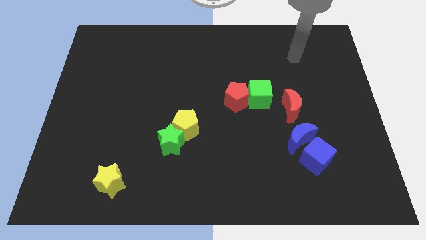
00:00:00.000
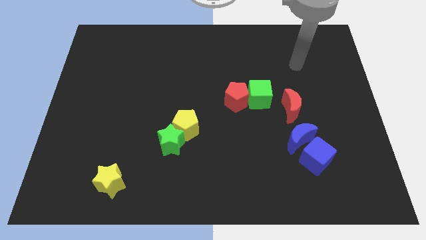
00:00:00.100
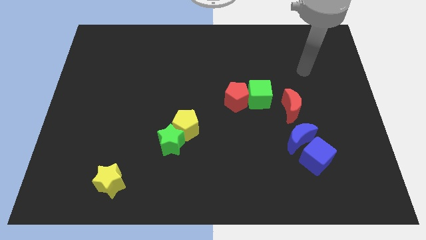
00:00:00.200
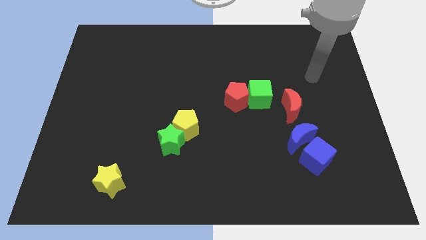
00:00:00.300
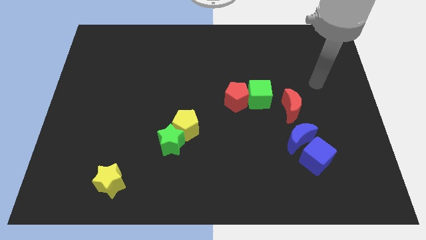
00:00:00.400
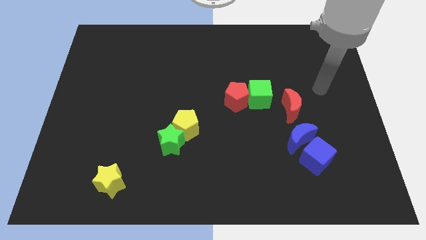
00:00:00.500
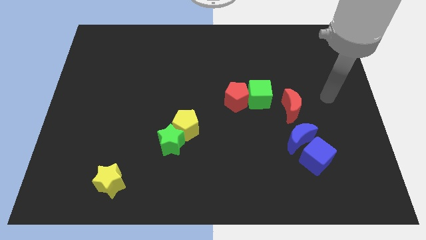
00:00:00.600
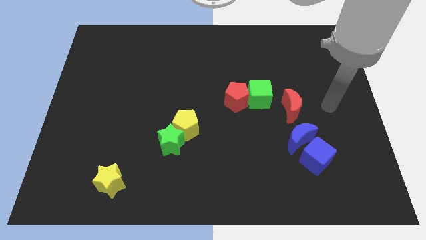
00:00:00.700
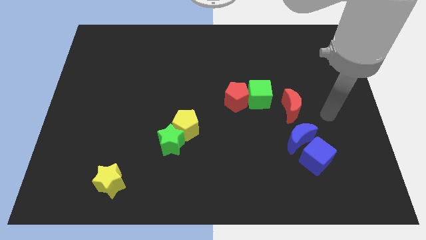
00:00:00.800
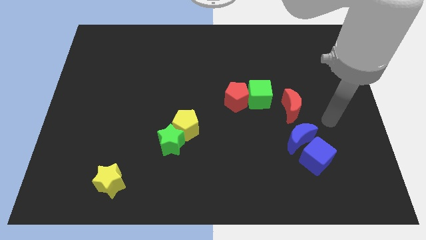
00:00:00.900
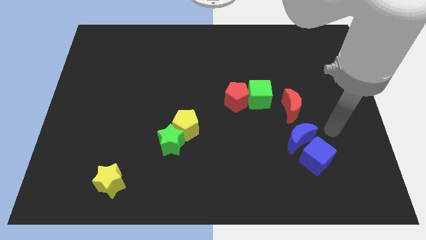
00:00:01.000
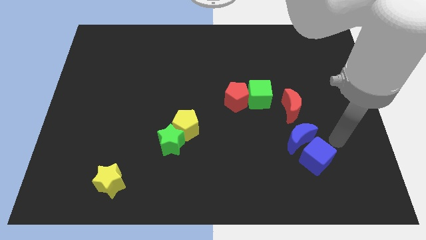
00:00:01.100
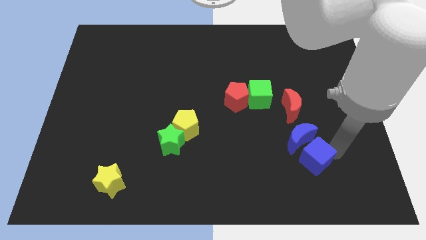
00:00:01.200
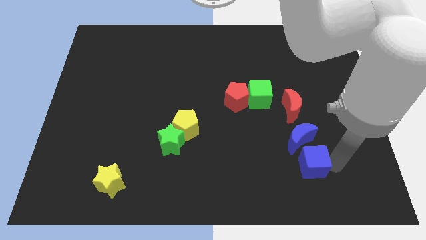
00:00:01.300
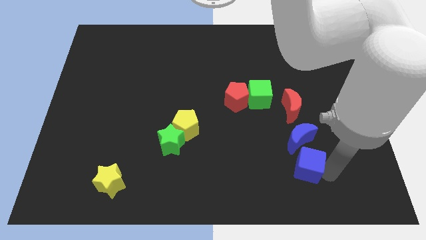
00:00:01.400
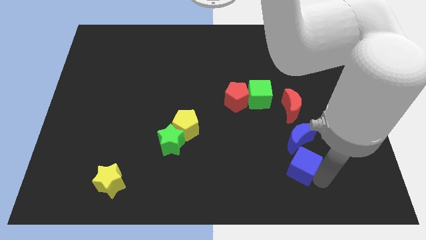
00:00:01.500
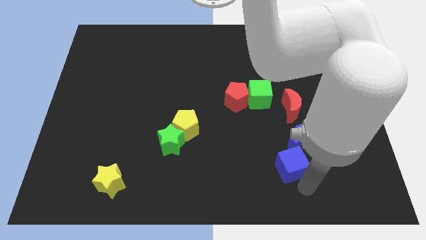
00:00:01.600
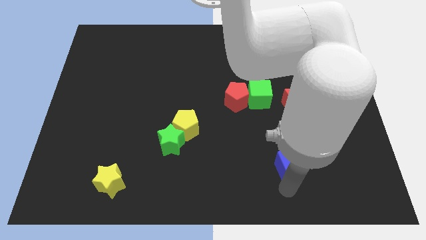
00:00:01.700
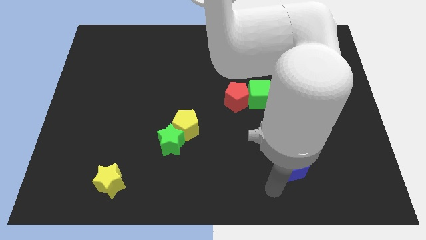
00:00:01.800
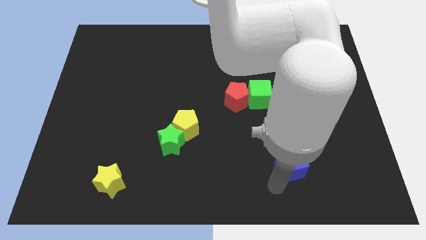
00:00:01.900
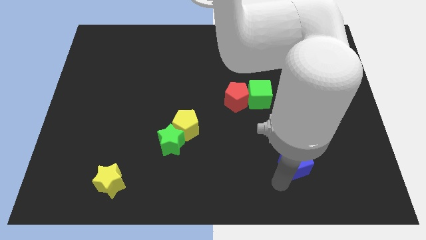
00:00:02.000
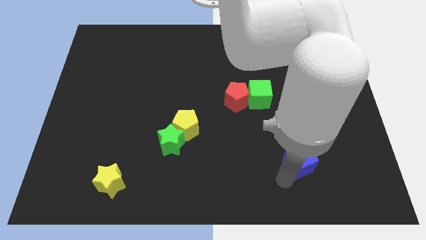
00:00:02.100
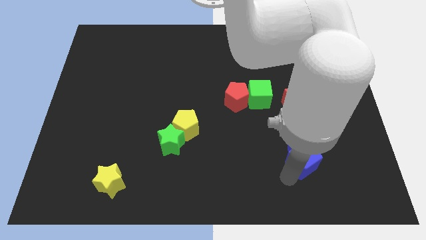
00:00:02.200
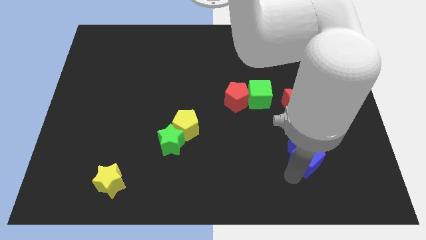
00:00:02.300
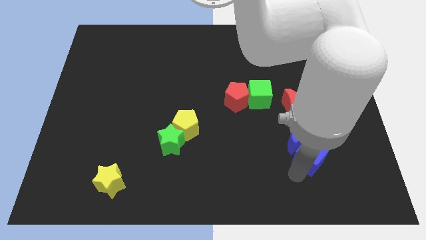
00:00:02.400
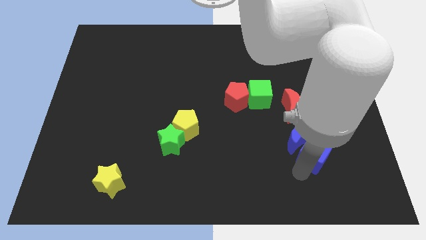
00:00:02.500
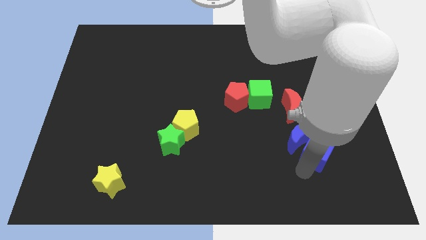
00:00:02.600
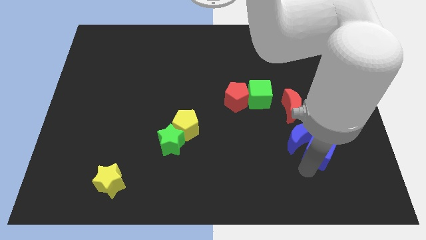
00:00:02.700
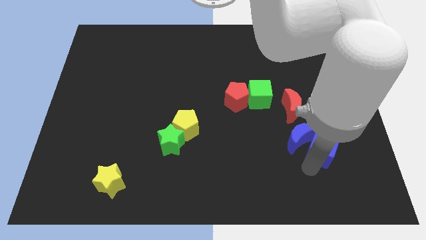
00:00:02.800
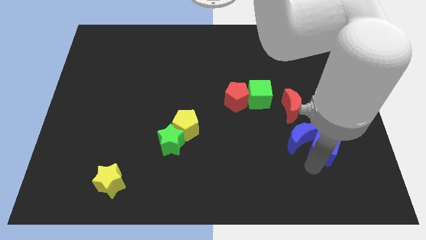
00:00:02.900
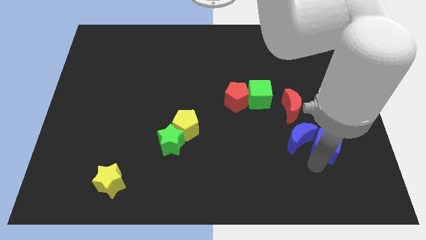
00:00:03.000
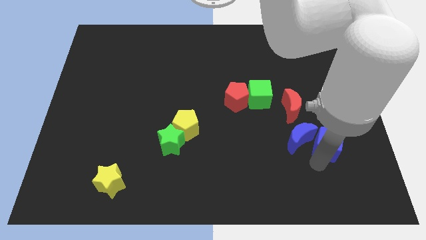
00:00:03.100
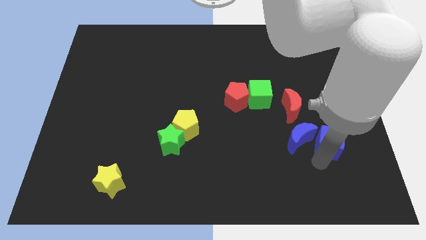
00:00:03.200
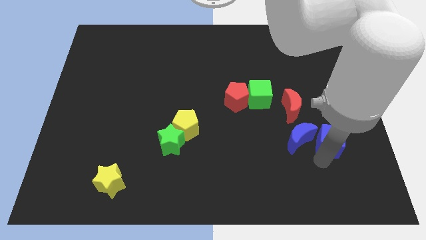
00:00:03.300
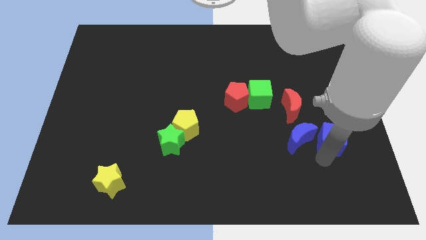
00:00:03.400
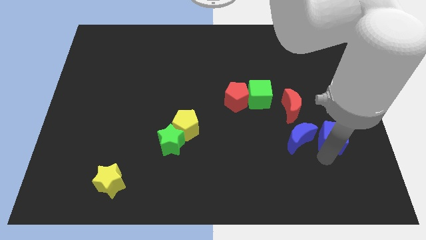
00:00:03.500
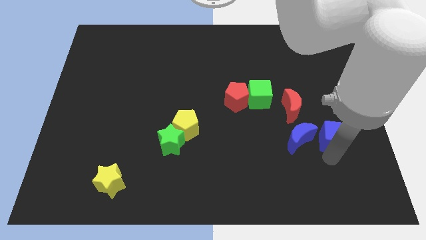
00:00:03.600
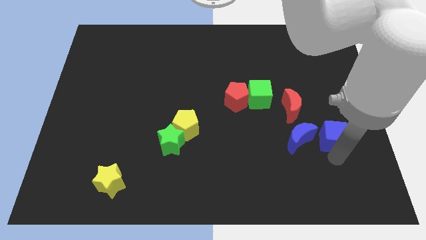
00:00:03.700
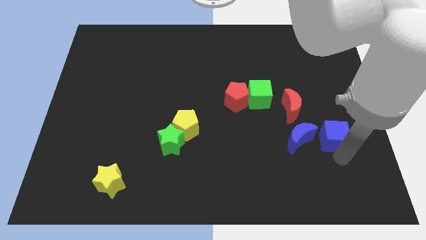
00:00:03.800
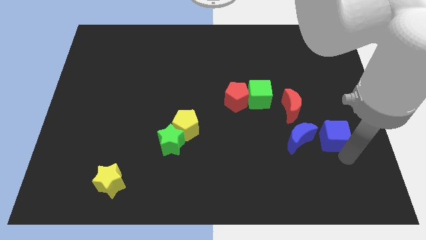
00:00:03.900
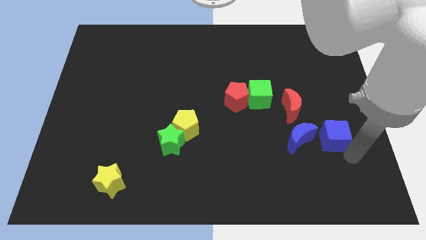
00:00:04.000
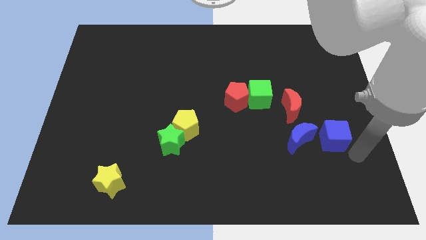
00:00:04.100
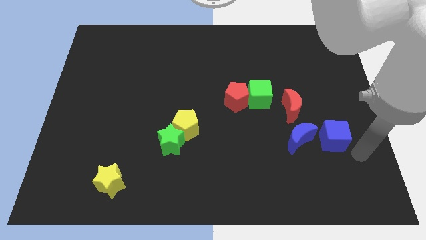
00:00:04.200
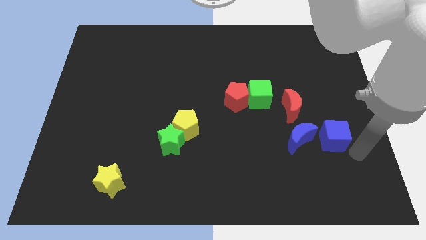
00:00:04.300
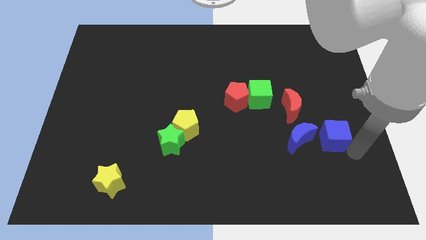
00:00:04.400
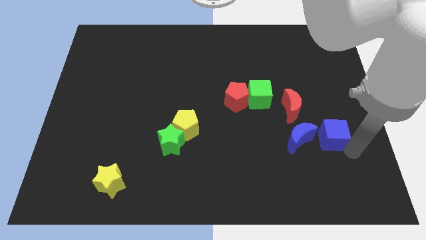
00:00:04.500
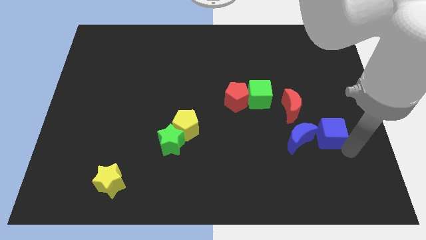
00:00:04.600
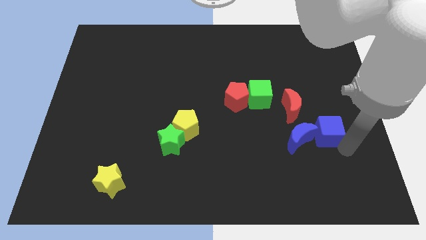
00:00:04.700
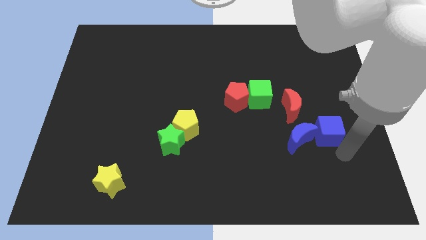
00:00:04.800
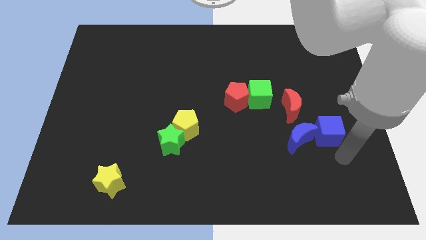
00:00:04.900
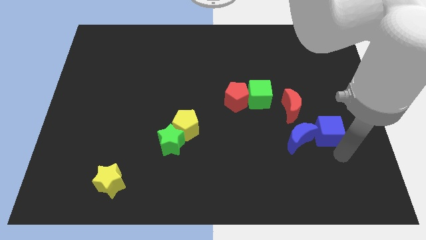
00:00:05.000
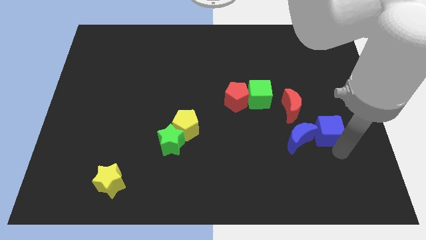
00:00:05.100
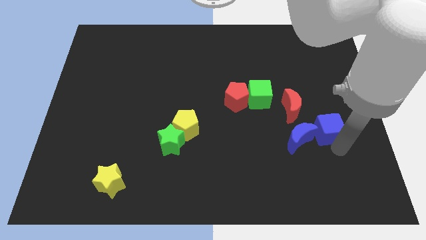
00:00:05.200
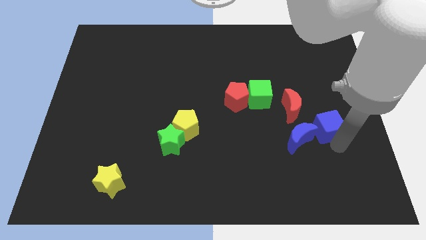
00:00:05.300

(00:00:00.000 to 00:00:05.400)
slide the blue cube up a little

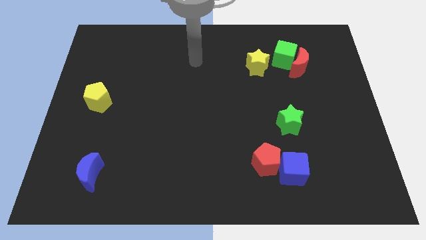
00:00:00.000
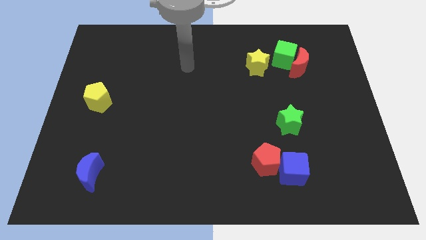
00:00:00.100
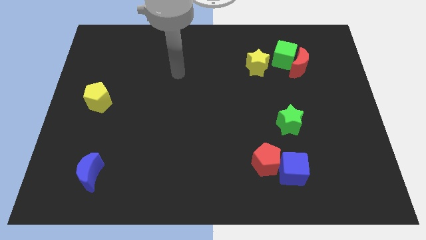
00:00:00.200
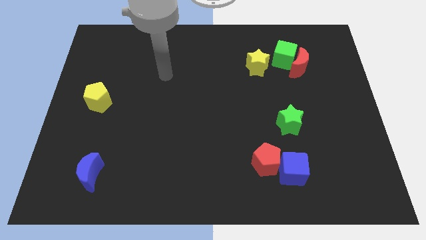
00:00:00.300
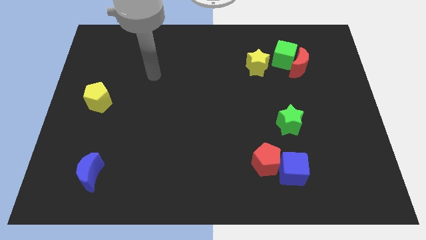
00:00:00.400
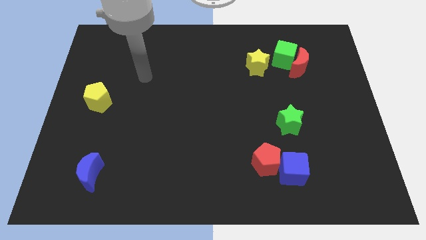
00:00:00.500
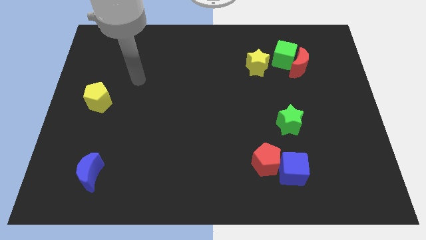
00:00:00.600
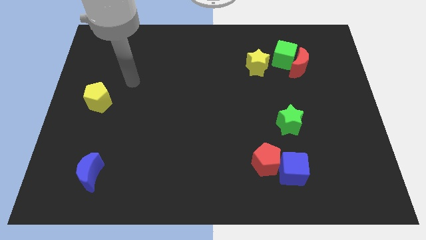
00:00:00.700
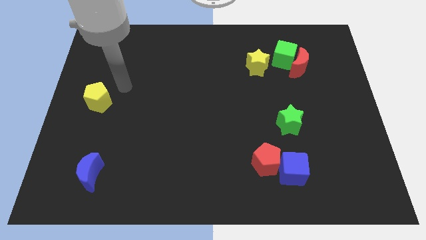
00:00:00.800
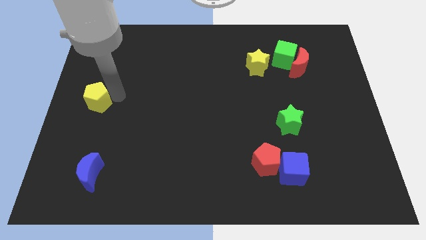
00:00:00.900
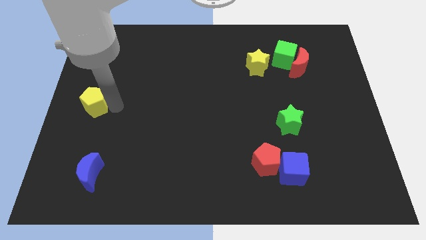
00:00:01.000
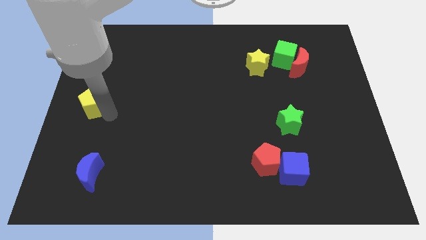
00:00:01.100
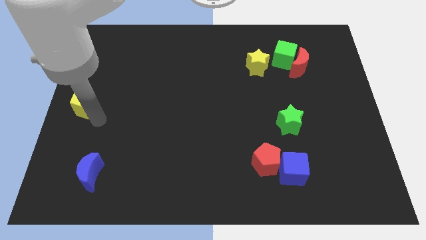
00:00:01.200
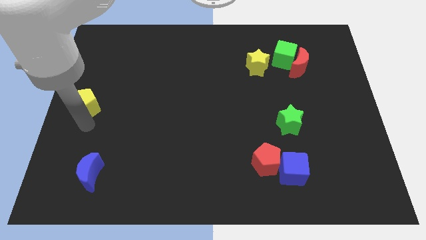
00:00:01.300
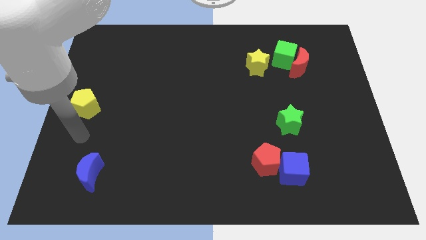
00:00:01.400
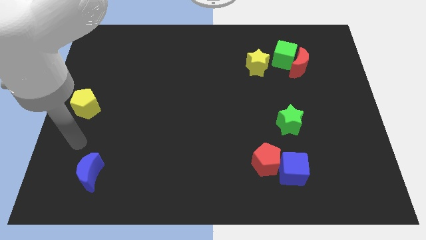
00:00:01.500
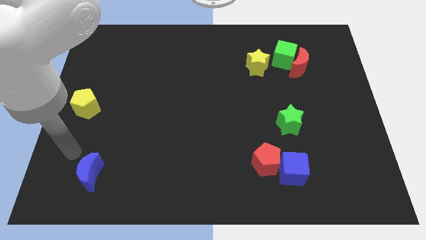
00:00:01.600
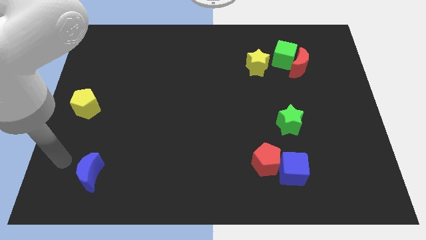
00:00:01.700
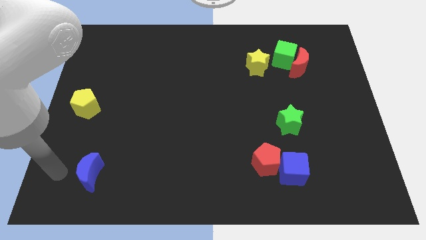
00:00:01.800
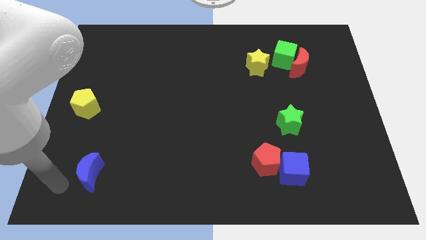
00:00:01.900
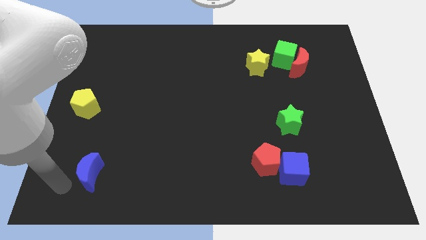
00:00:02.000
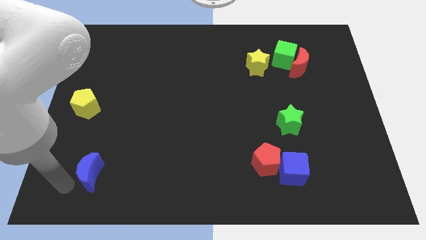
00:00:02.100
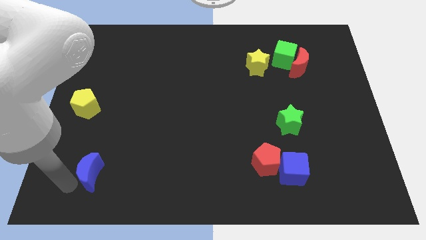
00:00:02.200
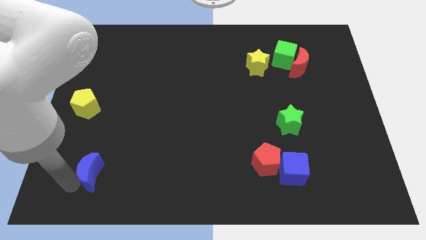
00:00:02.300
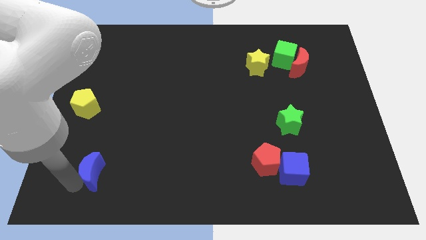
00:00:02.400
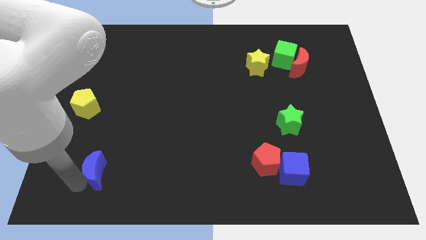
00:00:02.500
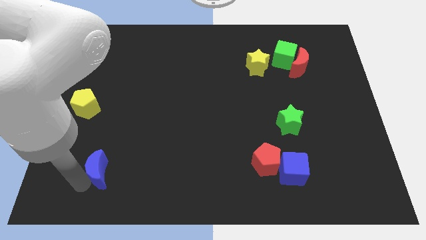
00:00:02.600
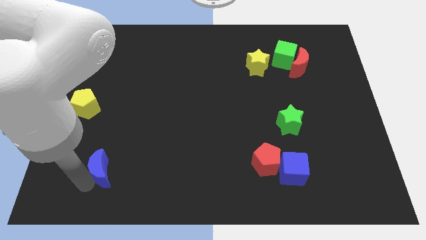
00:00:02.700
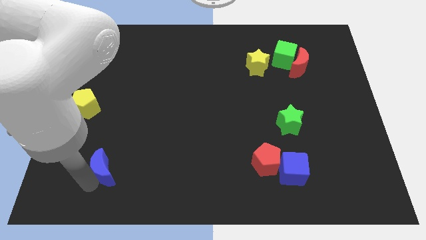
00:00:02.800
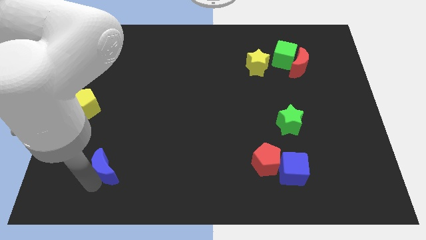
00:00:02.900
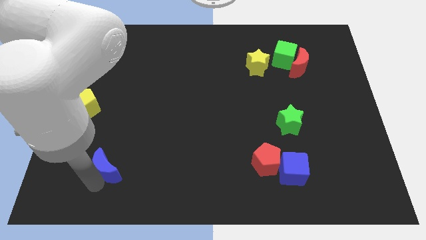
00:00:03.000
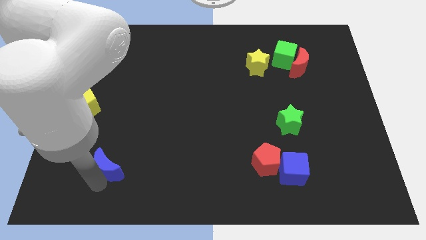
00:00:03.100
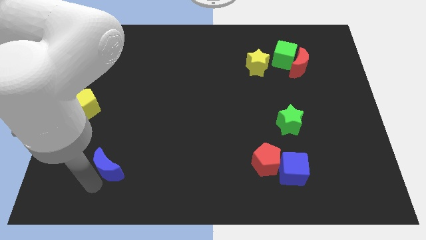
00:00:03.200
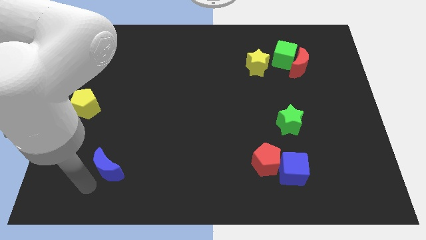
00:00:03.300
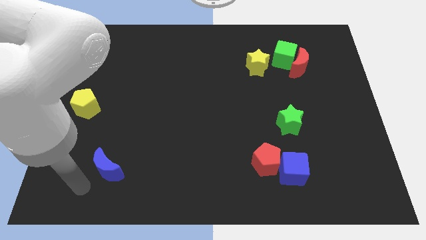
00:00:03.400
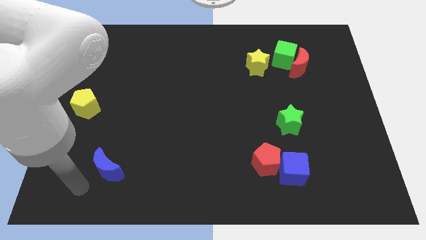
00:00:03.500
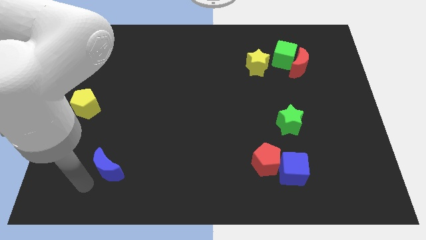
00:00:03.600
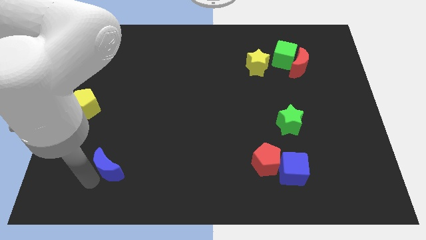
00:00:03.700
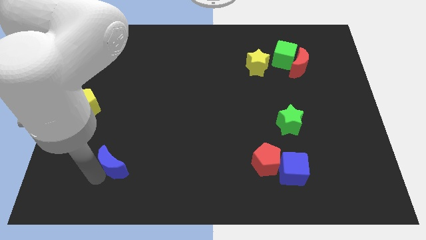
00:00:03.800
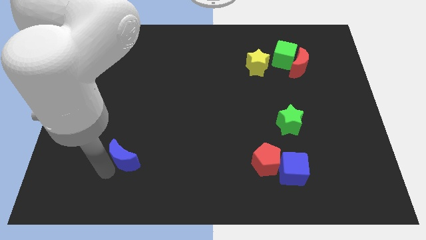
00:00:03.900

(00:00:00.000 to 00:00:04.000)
slide the blue moon up and to the right diagonally a little bit
